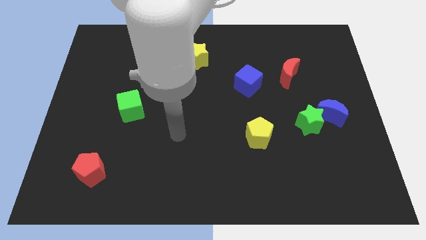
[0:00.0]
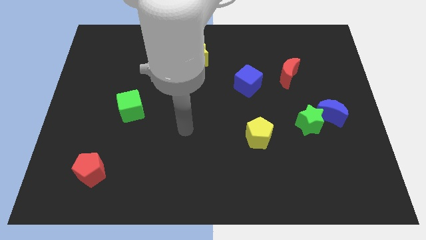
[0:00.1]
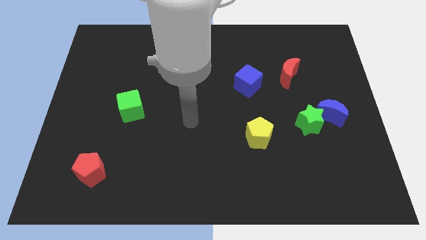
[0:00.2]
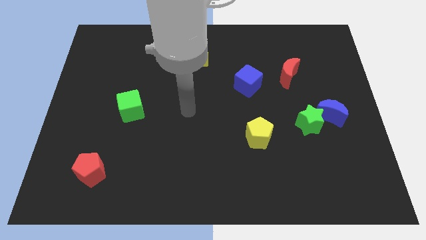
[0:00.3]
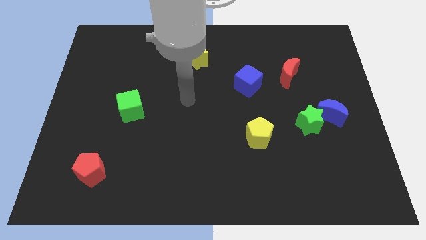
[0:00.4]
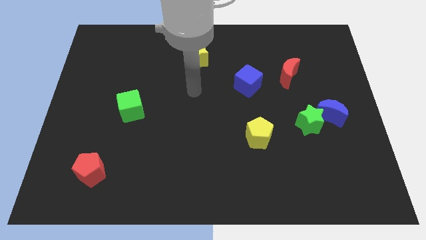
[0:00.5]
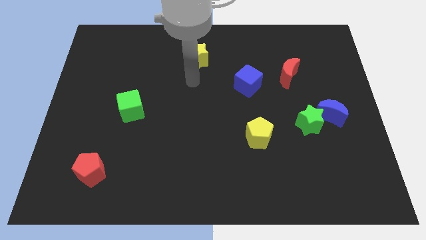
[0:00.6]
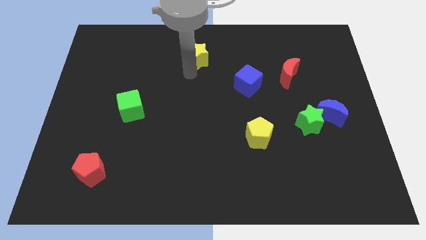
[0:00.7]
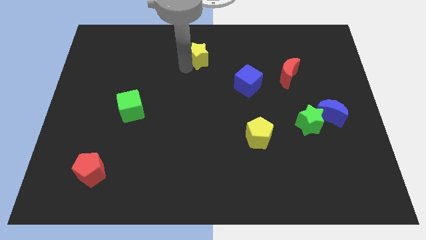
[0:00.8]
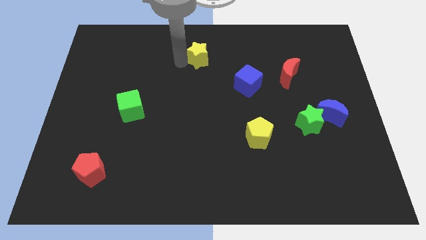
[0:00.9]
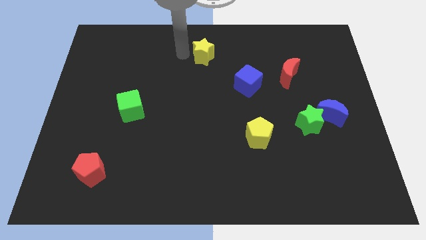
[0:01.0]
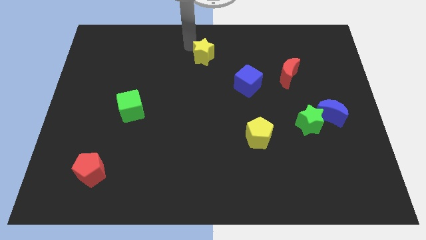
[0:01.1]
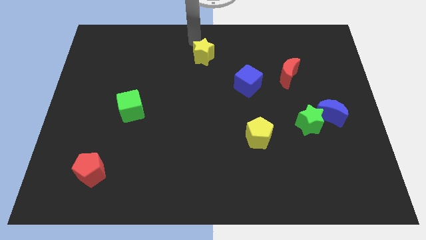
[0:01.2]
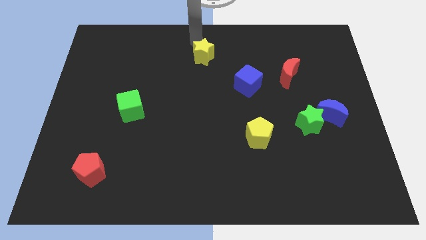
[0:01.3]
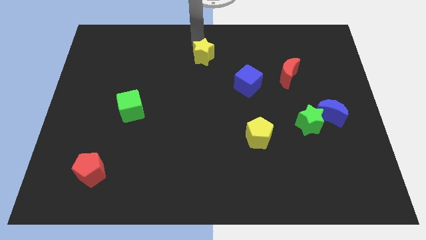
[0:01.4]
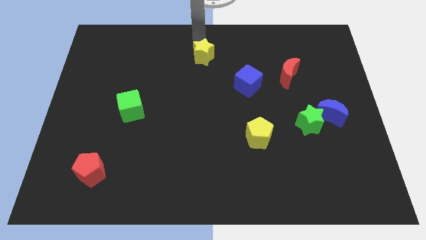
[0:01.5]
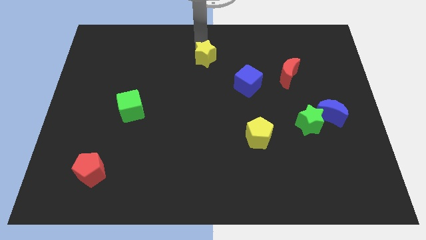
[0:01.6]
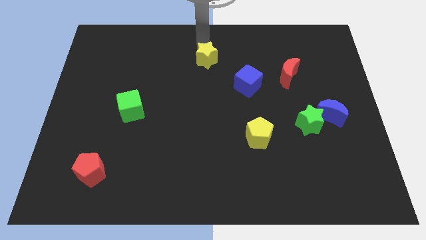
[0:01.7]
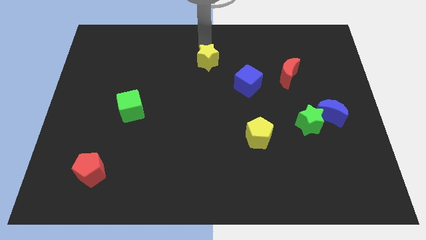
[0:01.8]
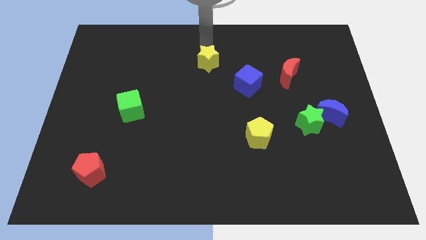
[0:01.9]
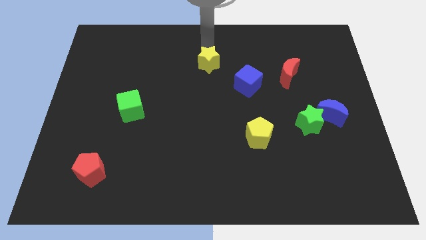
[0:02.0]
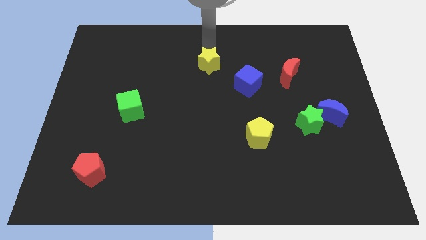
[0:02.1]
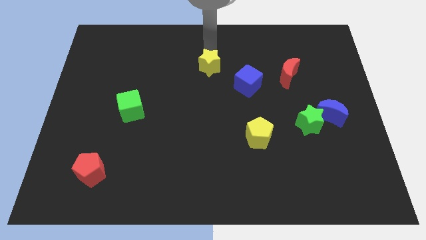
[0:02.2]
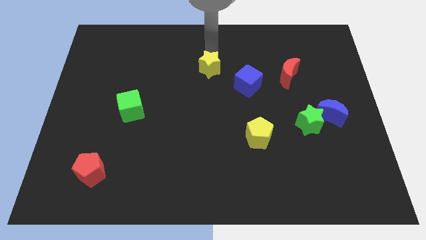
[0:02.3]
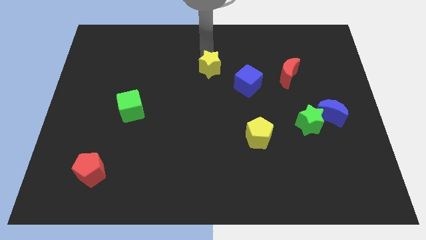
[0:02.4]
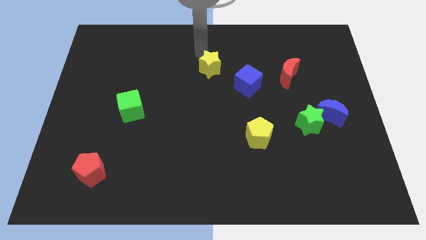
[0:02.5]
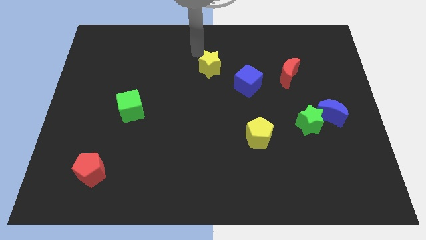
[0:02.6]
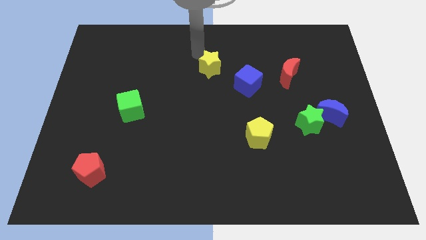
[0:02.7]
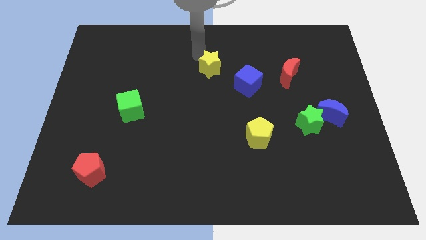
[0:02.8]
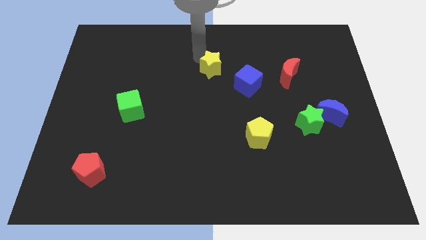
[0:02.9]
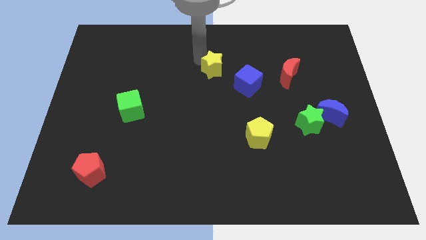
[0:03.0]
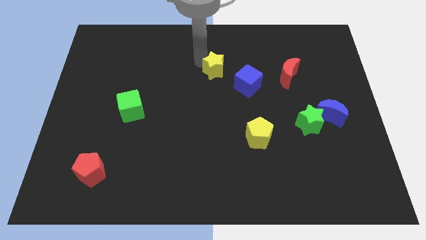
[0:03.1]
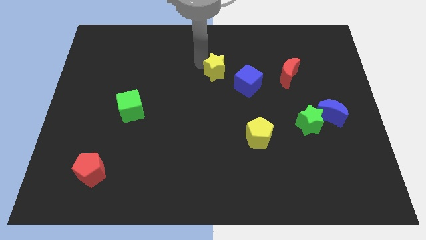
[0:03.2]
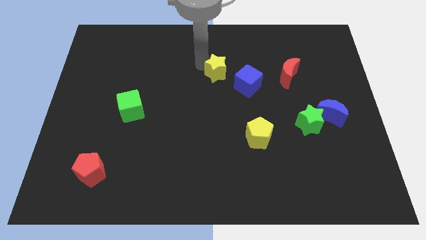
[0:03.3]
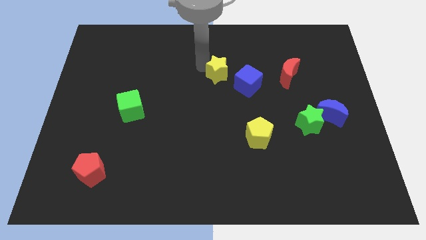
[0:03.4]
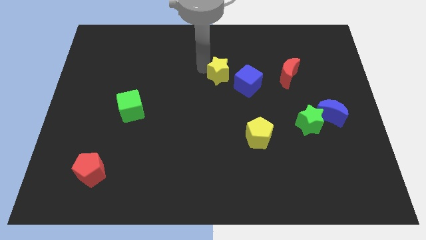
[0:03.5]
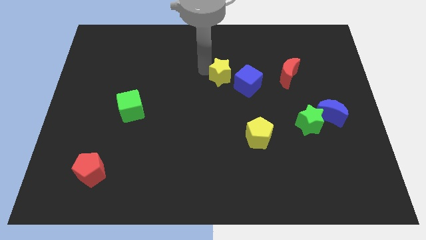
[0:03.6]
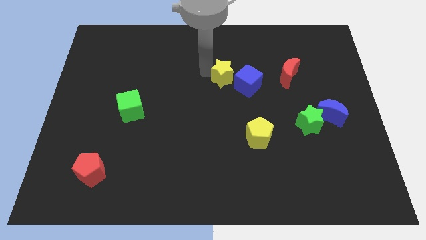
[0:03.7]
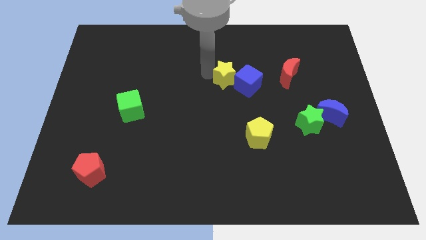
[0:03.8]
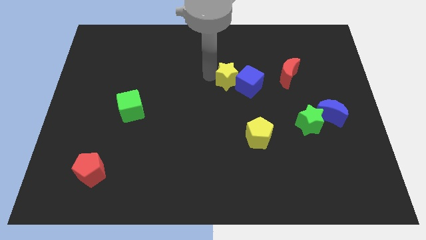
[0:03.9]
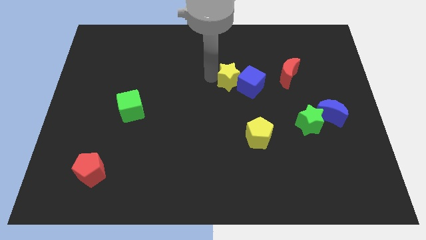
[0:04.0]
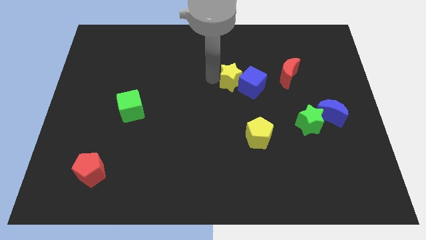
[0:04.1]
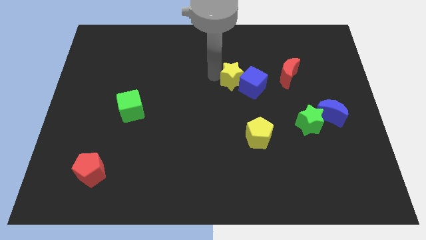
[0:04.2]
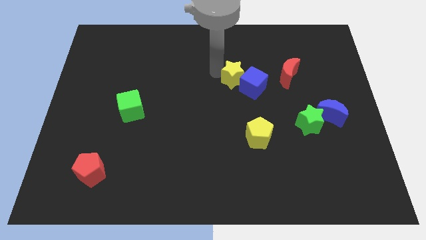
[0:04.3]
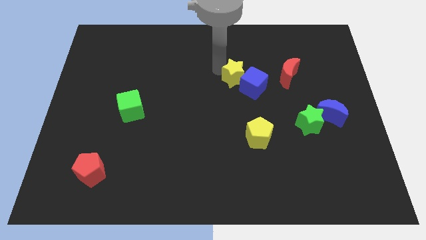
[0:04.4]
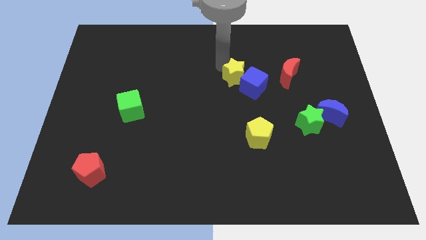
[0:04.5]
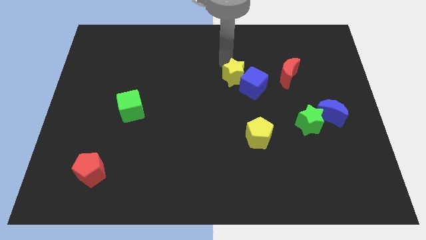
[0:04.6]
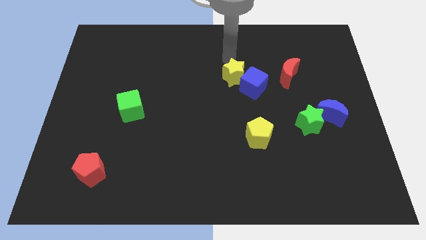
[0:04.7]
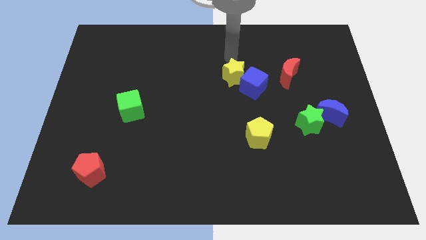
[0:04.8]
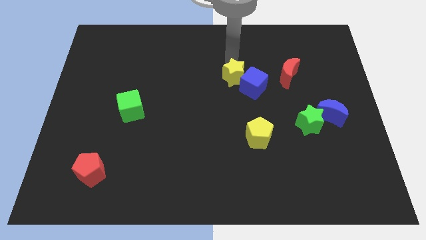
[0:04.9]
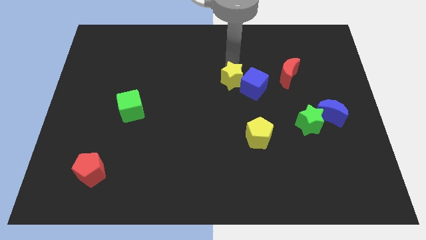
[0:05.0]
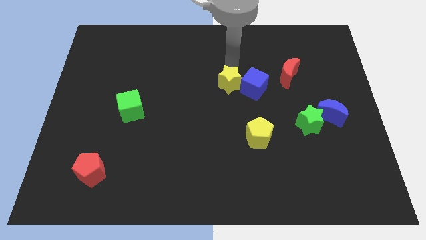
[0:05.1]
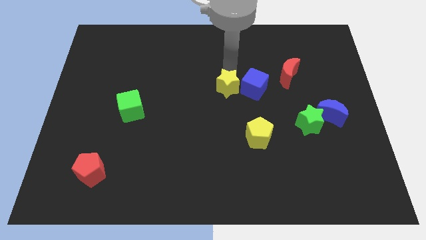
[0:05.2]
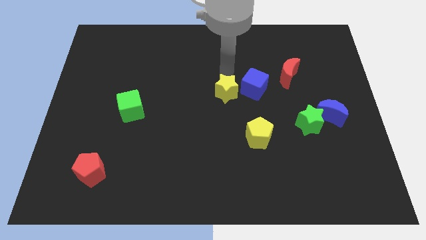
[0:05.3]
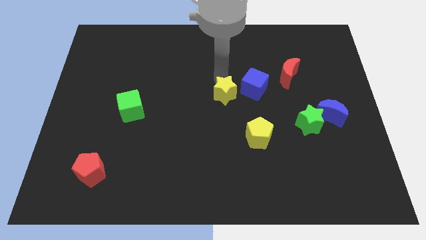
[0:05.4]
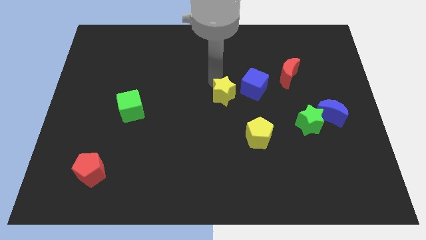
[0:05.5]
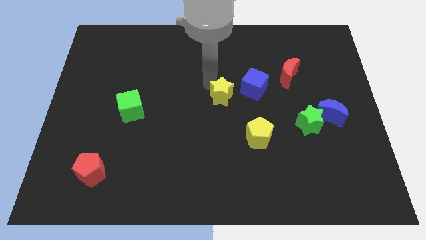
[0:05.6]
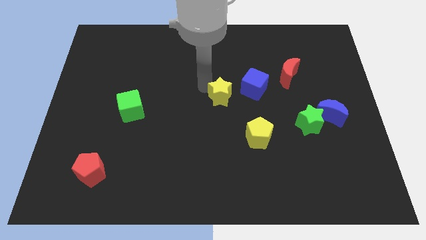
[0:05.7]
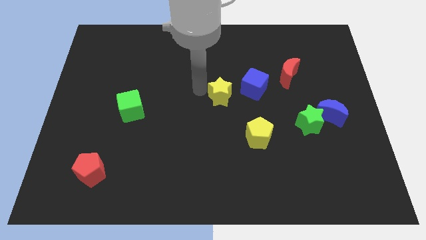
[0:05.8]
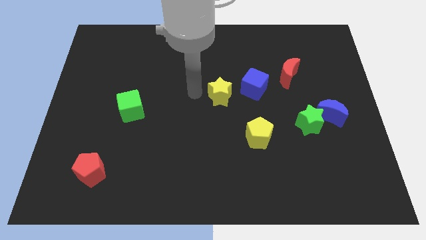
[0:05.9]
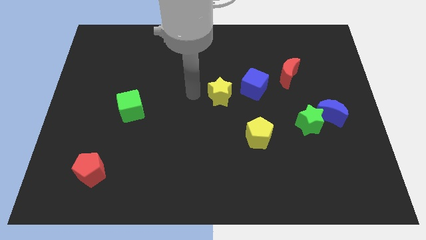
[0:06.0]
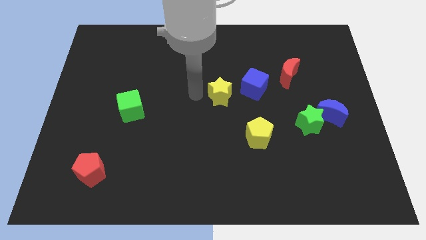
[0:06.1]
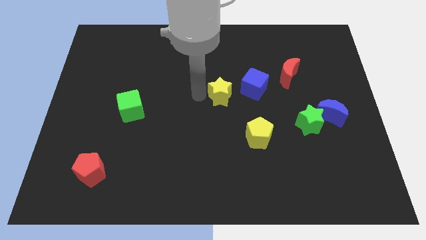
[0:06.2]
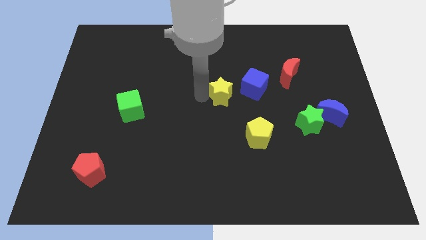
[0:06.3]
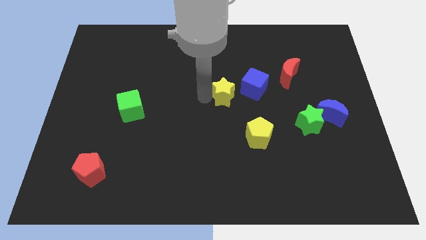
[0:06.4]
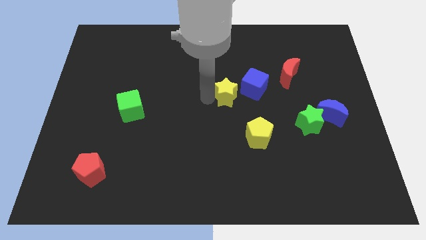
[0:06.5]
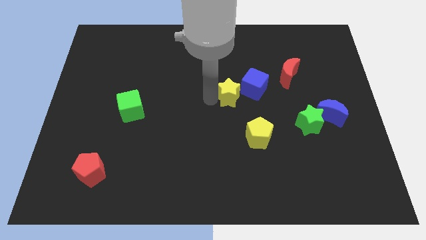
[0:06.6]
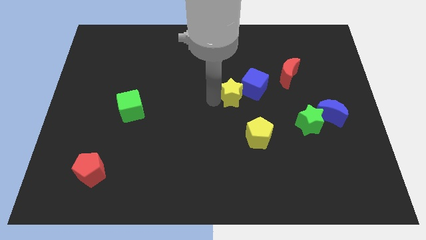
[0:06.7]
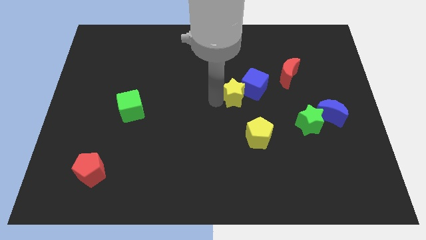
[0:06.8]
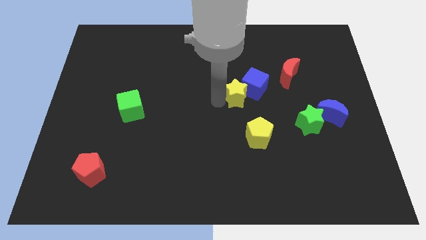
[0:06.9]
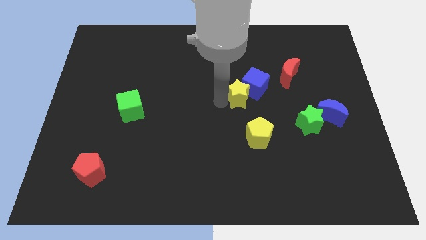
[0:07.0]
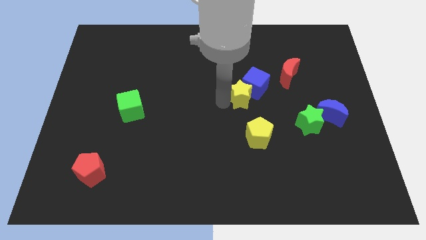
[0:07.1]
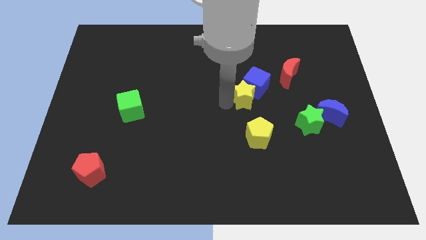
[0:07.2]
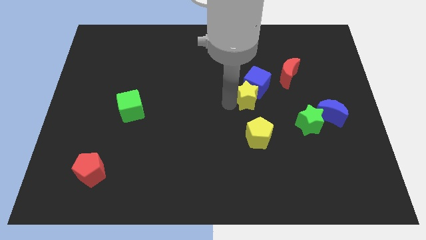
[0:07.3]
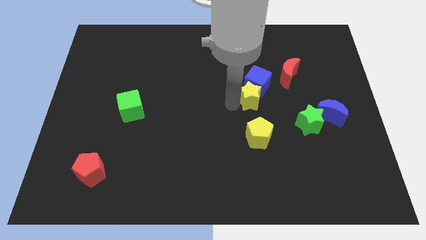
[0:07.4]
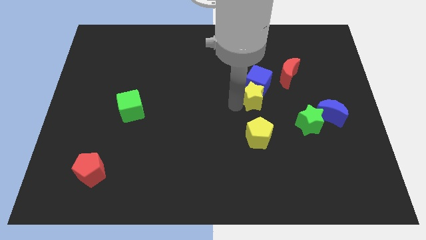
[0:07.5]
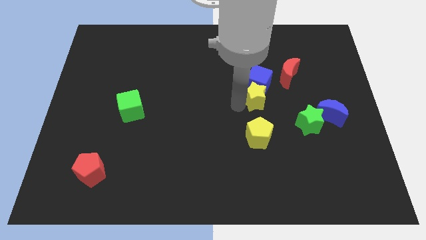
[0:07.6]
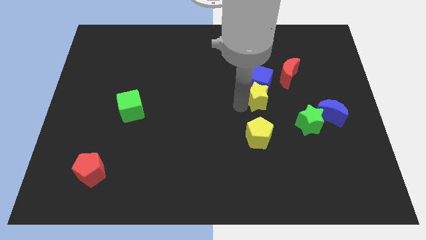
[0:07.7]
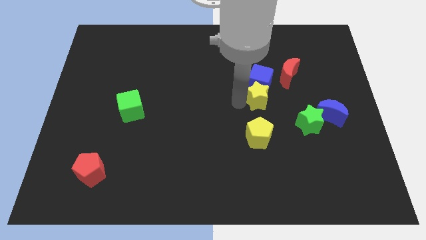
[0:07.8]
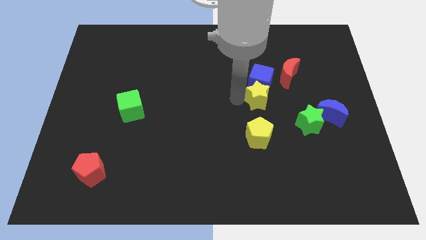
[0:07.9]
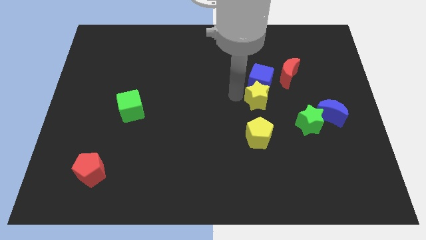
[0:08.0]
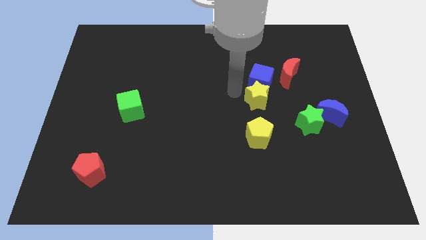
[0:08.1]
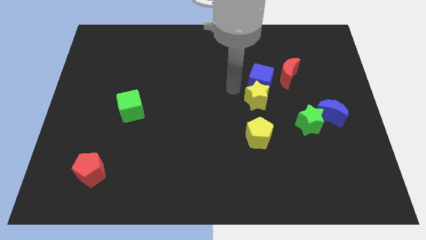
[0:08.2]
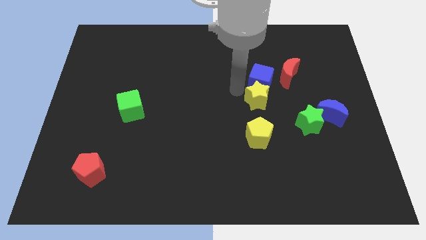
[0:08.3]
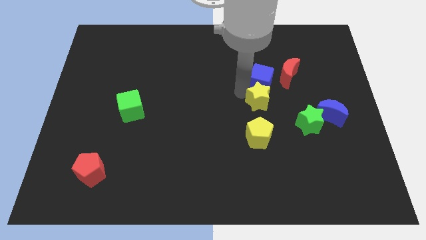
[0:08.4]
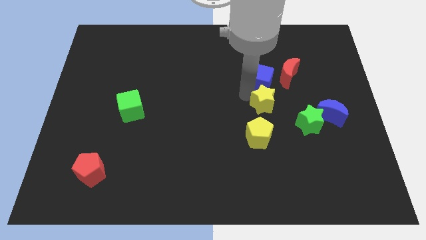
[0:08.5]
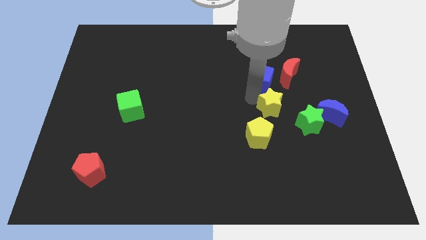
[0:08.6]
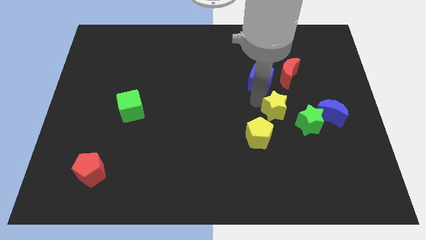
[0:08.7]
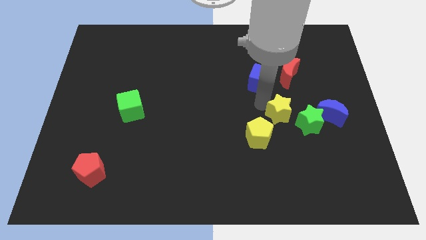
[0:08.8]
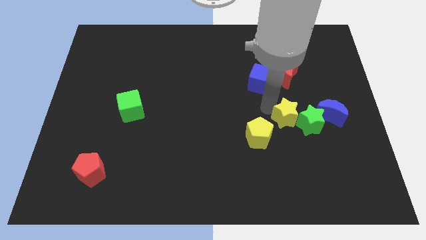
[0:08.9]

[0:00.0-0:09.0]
move the yellow star next to the green star
